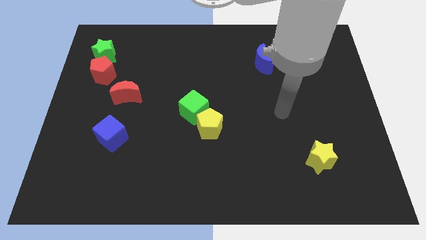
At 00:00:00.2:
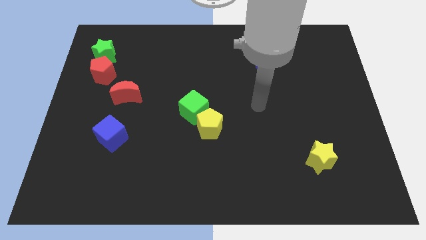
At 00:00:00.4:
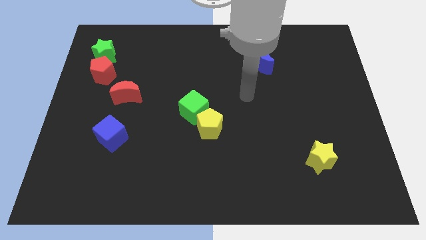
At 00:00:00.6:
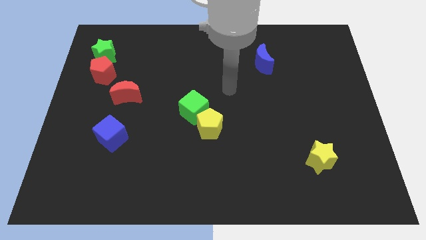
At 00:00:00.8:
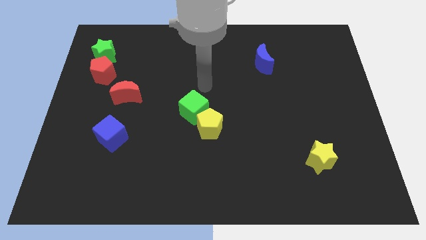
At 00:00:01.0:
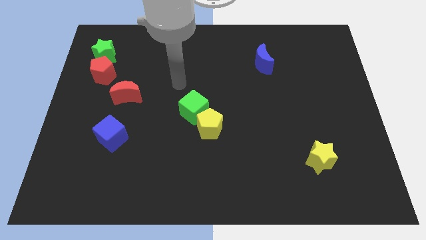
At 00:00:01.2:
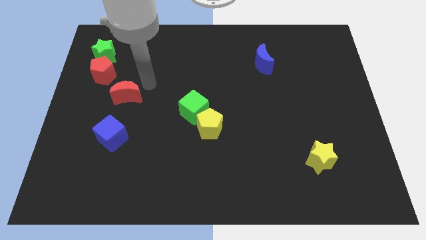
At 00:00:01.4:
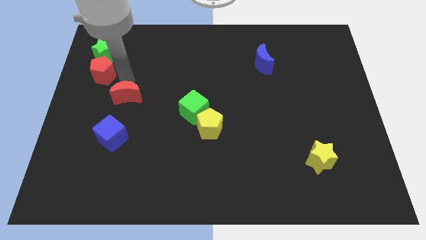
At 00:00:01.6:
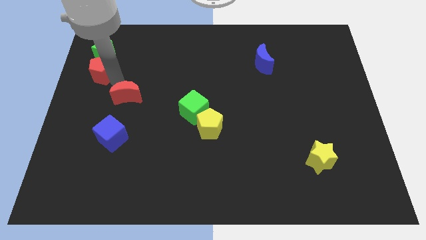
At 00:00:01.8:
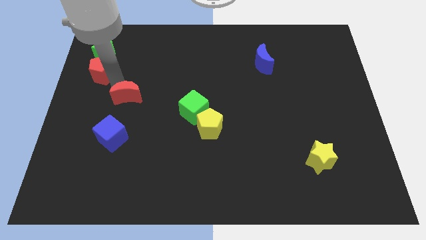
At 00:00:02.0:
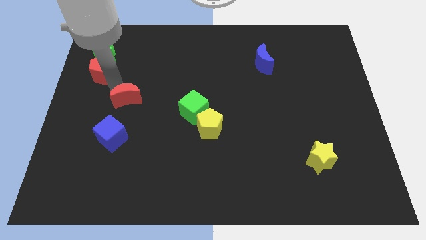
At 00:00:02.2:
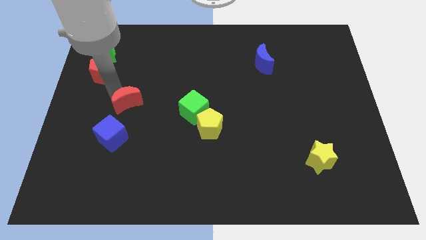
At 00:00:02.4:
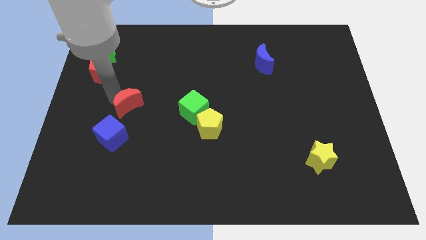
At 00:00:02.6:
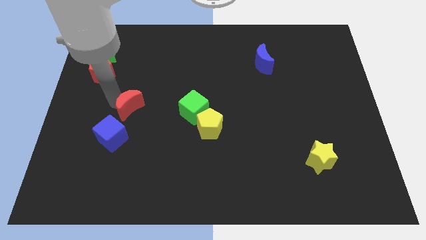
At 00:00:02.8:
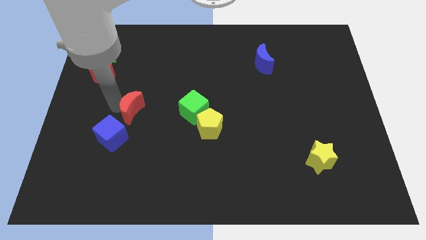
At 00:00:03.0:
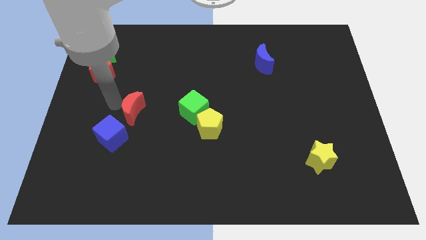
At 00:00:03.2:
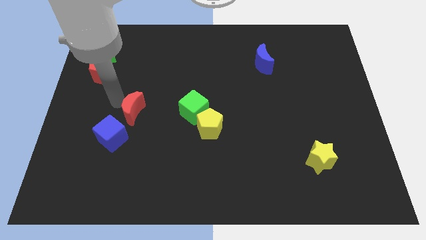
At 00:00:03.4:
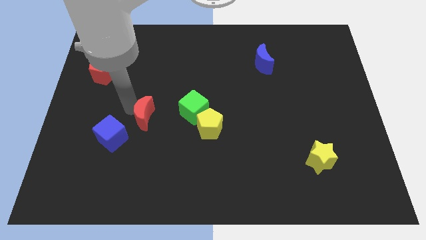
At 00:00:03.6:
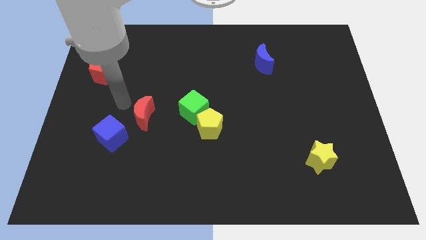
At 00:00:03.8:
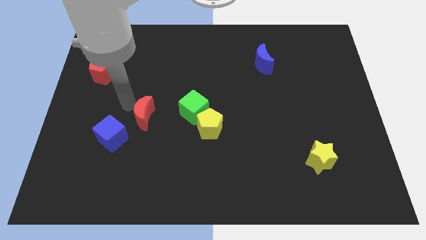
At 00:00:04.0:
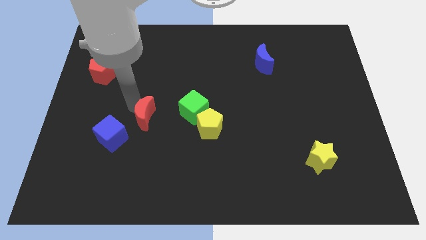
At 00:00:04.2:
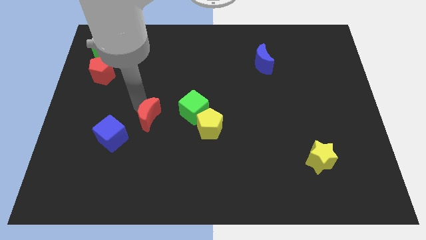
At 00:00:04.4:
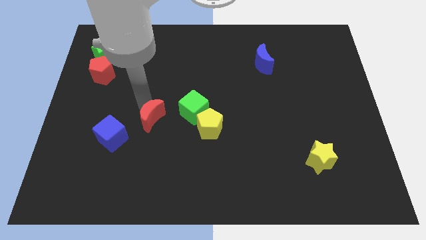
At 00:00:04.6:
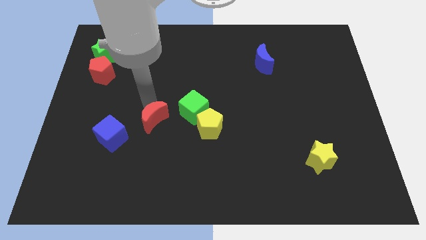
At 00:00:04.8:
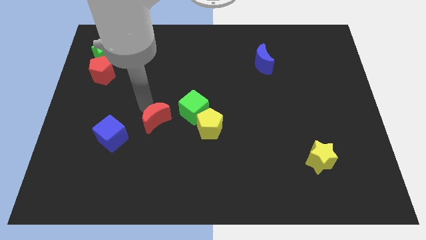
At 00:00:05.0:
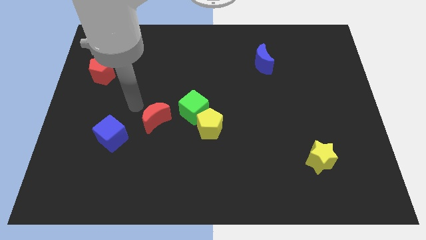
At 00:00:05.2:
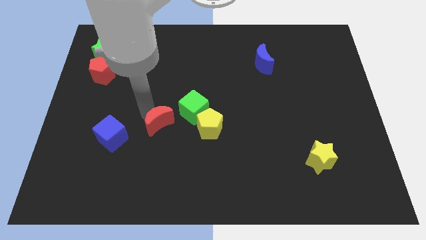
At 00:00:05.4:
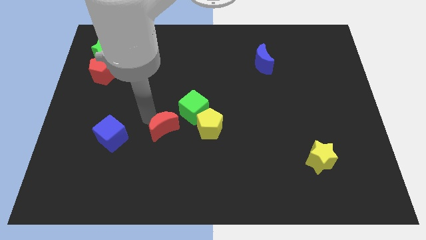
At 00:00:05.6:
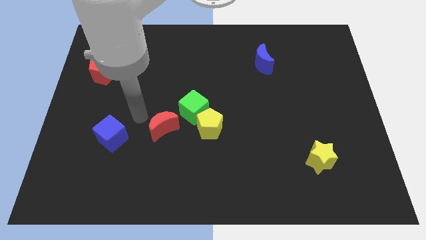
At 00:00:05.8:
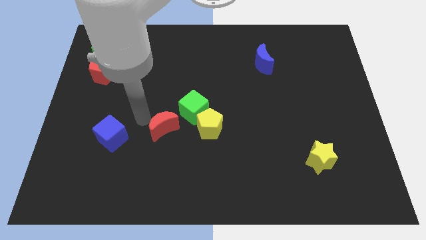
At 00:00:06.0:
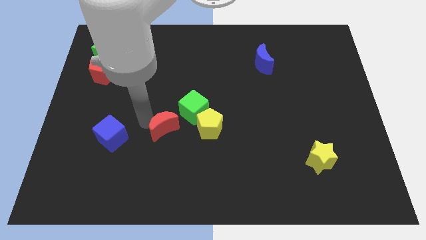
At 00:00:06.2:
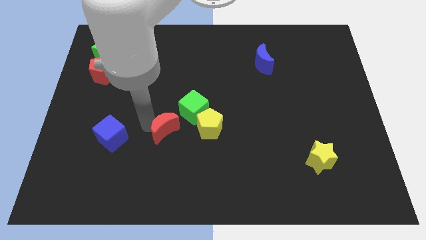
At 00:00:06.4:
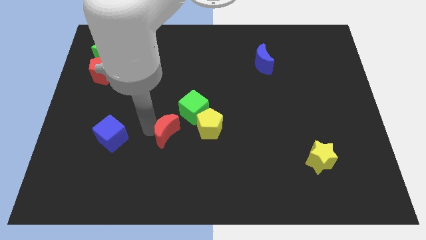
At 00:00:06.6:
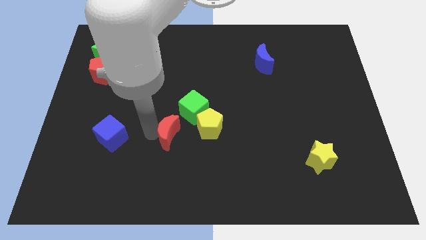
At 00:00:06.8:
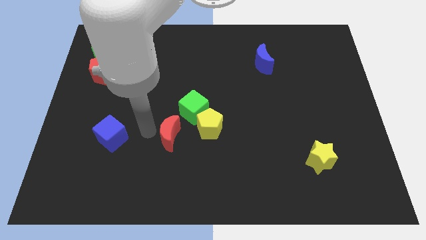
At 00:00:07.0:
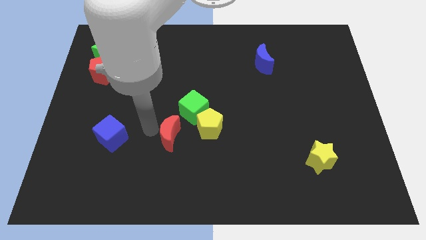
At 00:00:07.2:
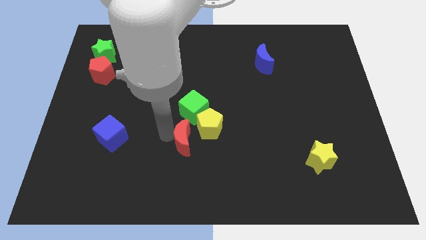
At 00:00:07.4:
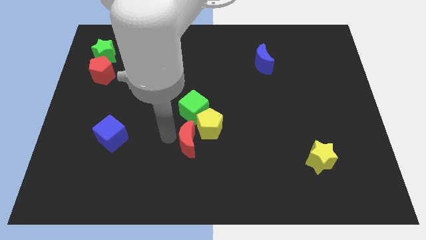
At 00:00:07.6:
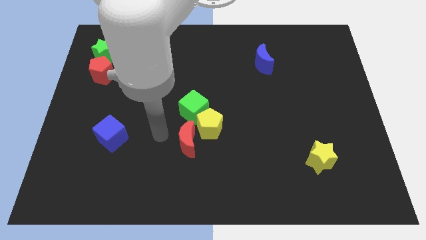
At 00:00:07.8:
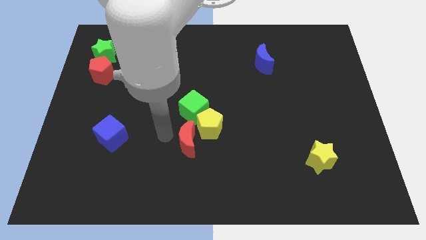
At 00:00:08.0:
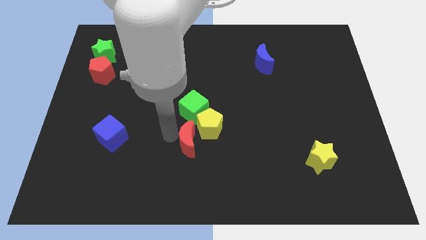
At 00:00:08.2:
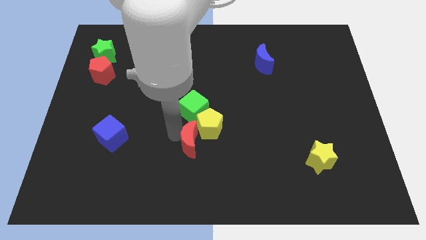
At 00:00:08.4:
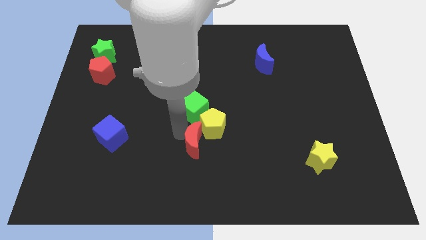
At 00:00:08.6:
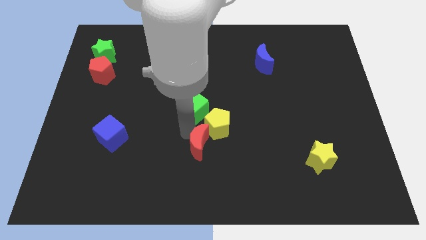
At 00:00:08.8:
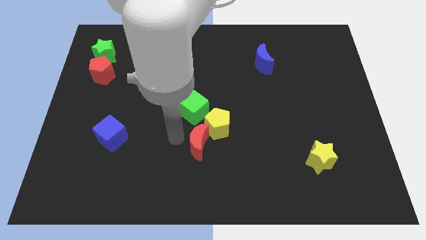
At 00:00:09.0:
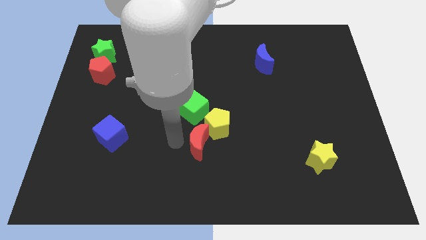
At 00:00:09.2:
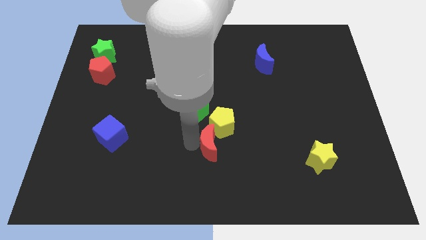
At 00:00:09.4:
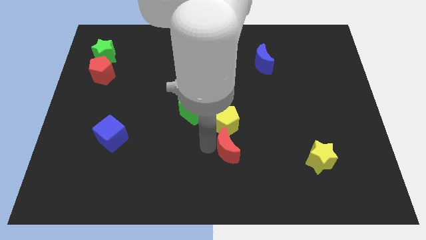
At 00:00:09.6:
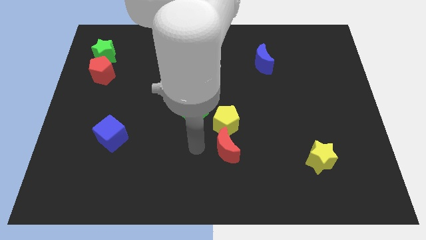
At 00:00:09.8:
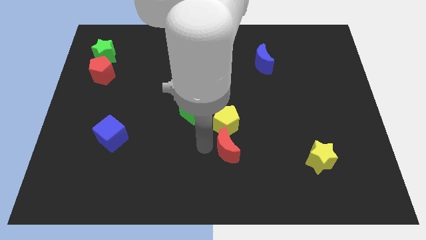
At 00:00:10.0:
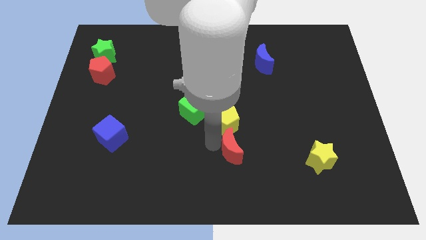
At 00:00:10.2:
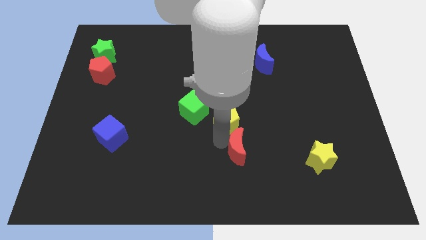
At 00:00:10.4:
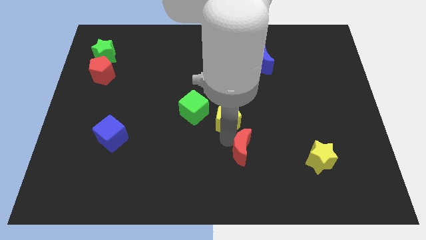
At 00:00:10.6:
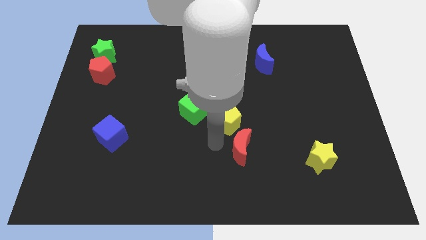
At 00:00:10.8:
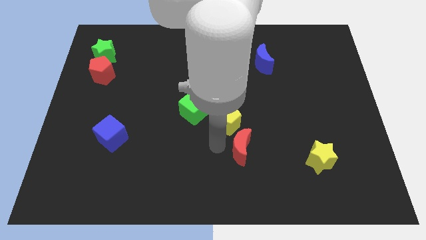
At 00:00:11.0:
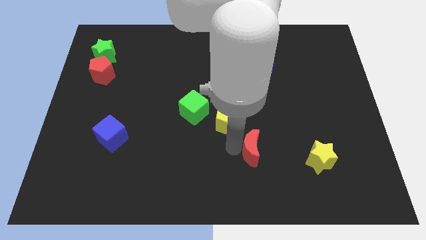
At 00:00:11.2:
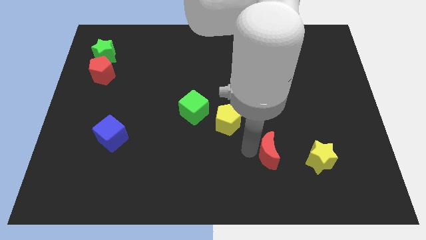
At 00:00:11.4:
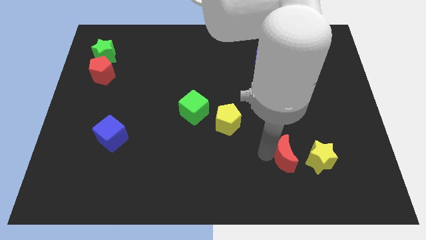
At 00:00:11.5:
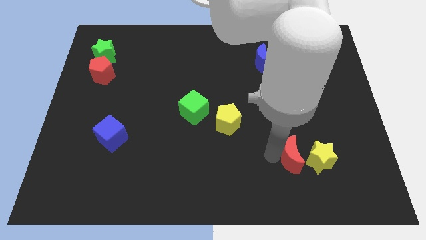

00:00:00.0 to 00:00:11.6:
move the red moon close to the yellow star

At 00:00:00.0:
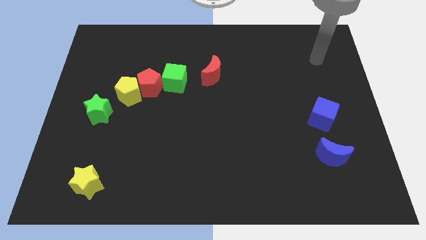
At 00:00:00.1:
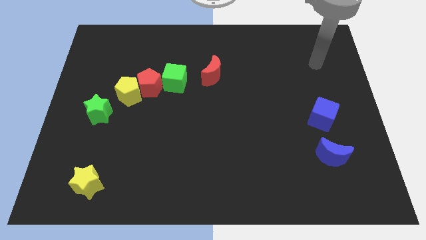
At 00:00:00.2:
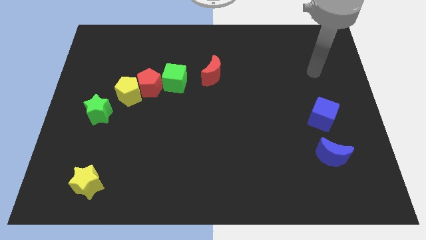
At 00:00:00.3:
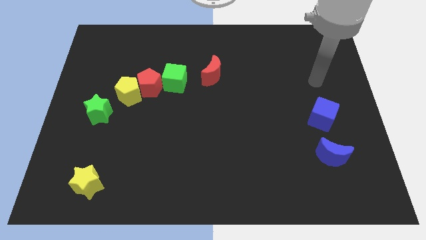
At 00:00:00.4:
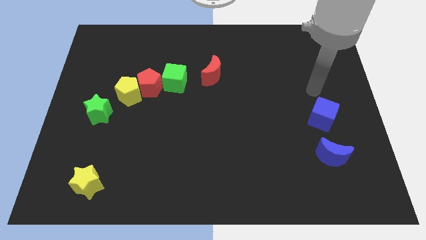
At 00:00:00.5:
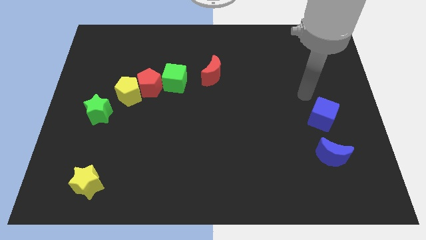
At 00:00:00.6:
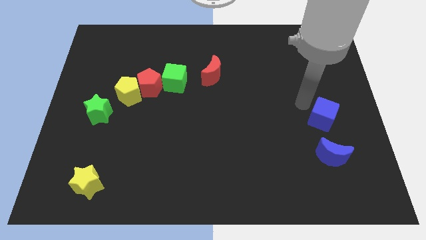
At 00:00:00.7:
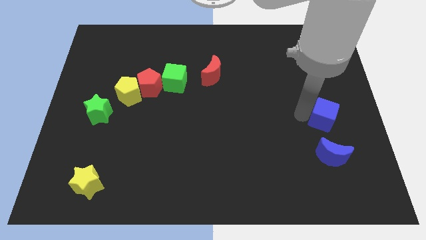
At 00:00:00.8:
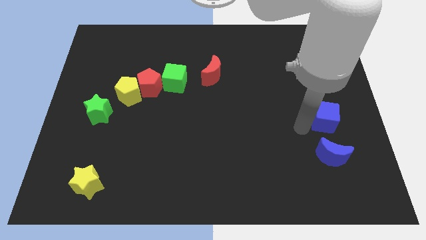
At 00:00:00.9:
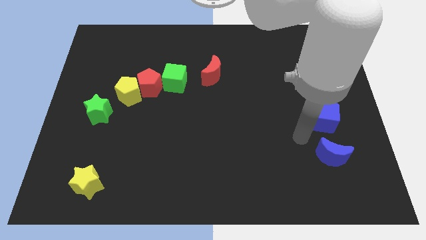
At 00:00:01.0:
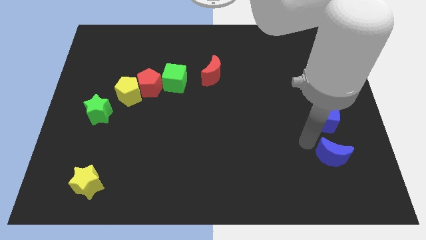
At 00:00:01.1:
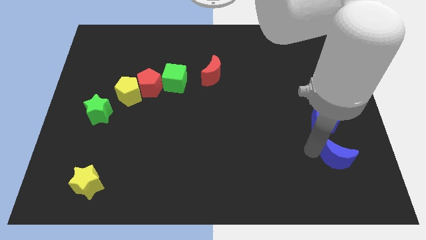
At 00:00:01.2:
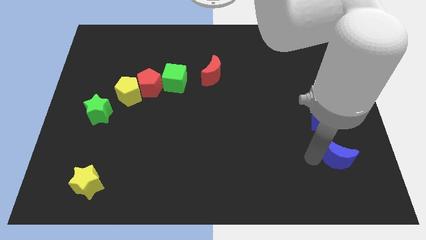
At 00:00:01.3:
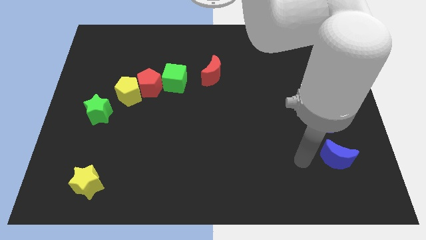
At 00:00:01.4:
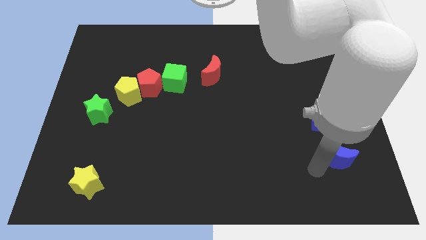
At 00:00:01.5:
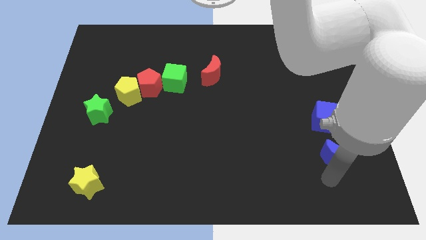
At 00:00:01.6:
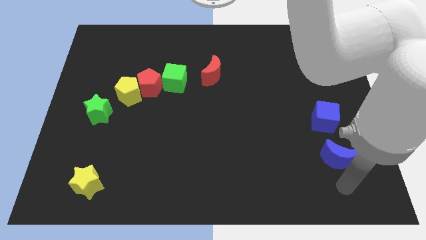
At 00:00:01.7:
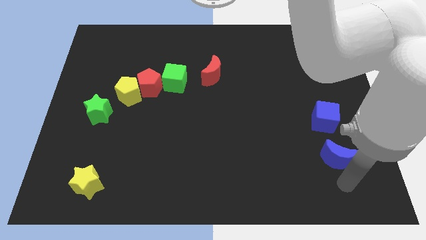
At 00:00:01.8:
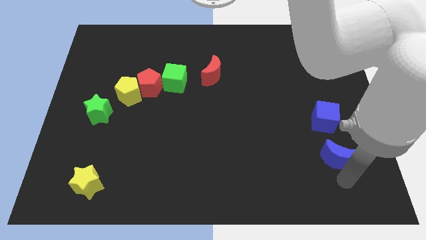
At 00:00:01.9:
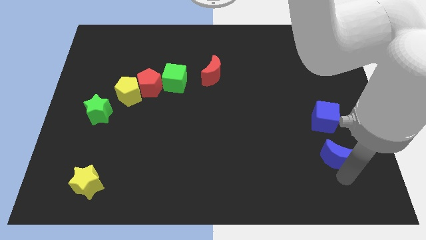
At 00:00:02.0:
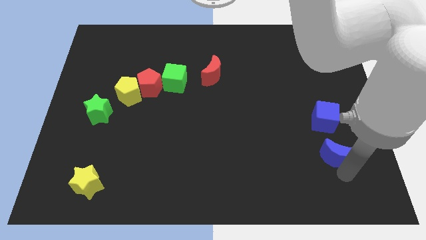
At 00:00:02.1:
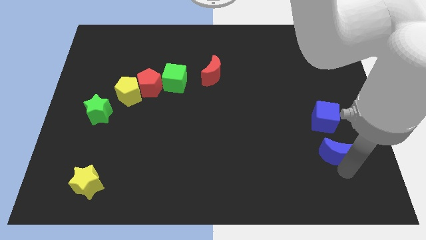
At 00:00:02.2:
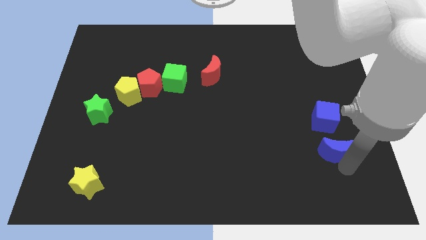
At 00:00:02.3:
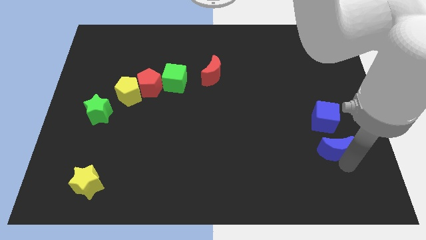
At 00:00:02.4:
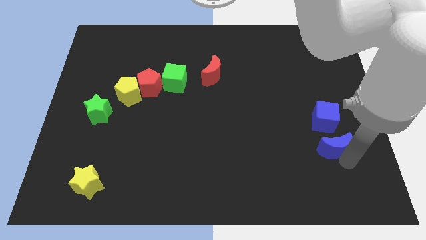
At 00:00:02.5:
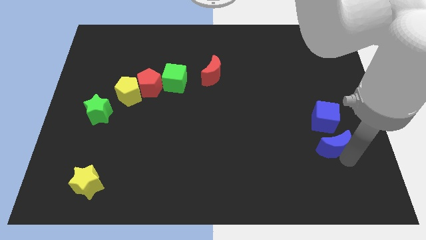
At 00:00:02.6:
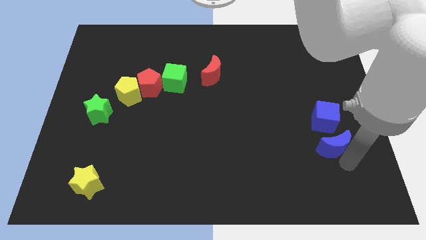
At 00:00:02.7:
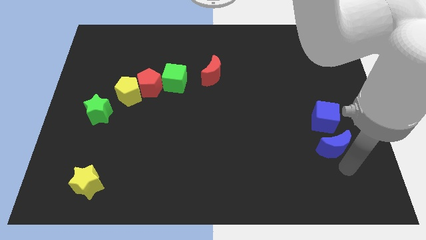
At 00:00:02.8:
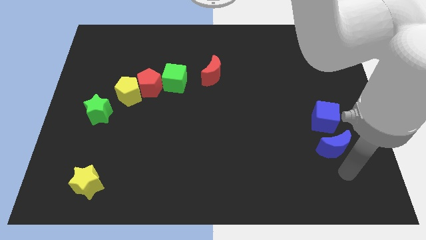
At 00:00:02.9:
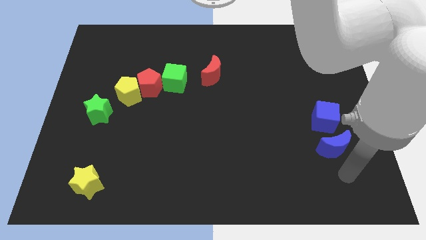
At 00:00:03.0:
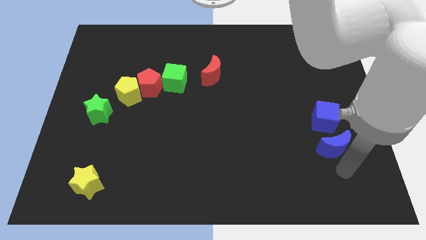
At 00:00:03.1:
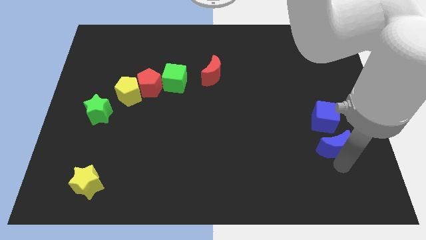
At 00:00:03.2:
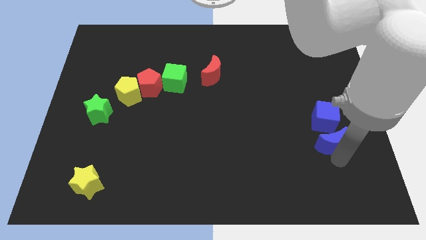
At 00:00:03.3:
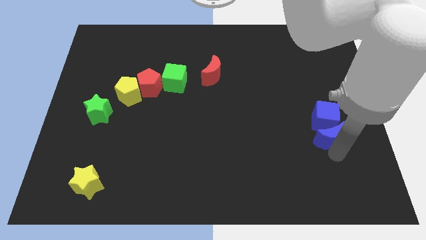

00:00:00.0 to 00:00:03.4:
put the blue moon towards the blue cube
